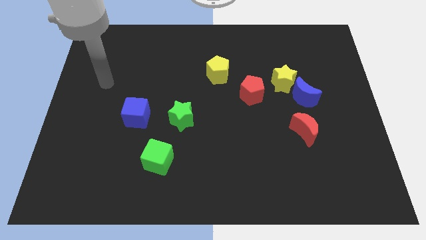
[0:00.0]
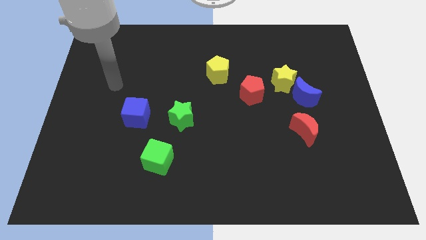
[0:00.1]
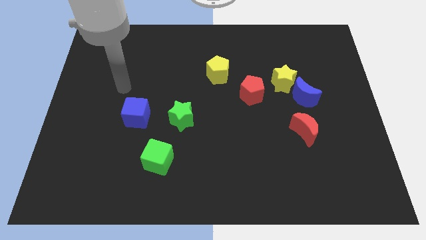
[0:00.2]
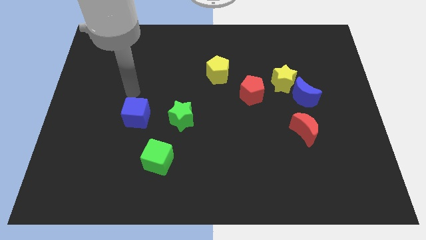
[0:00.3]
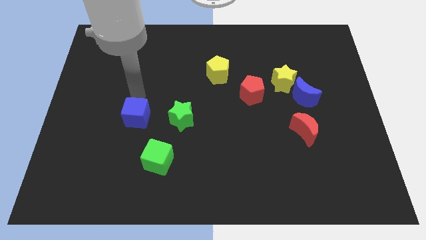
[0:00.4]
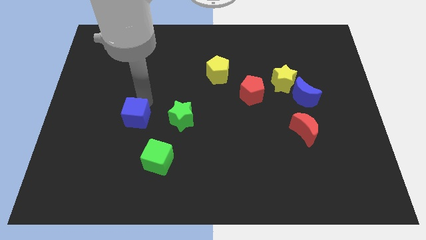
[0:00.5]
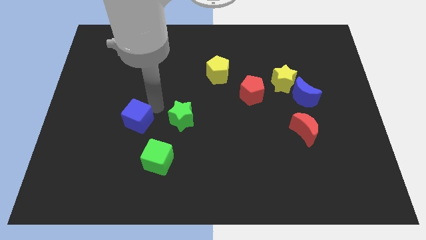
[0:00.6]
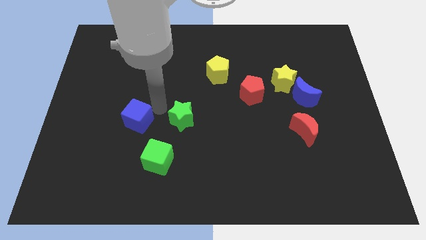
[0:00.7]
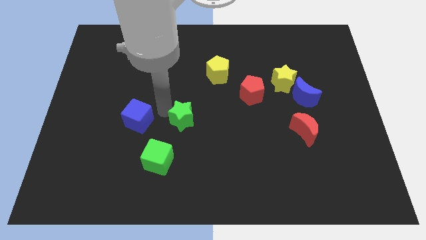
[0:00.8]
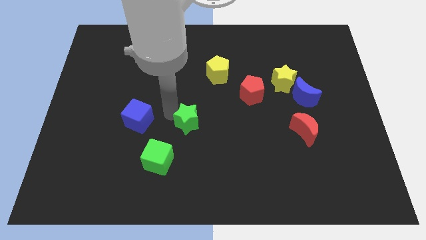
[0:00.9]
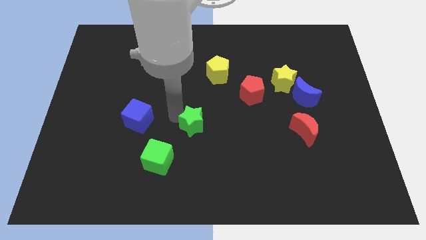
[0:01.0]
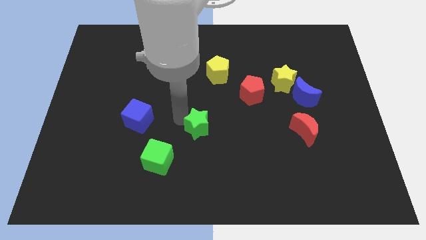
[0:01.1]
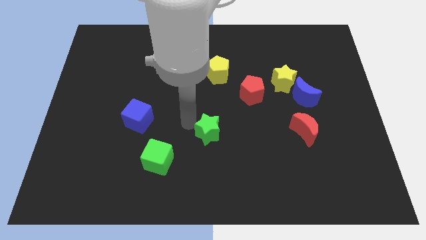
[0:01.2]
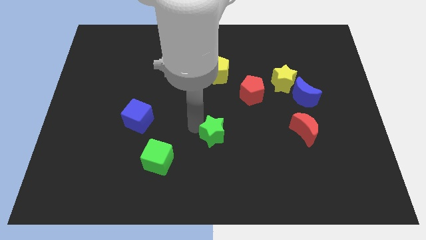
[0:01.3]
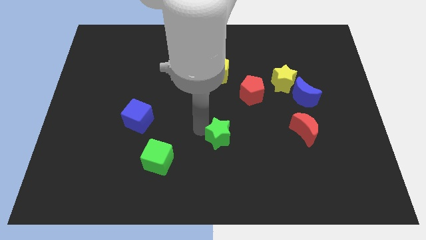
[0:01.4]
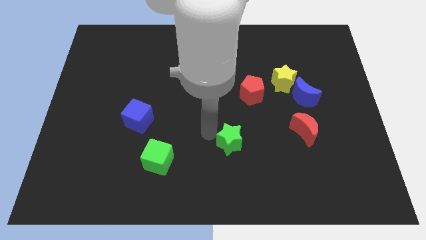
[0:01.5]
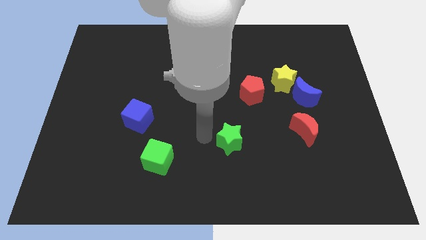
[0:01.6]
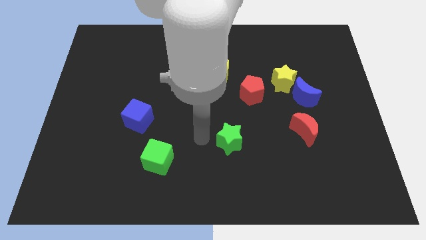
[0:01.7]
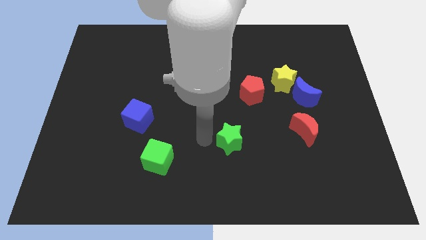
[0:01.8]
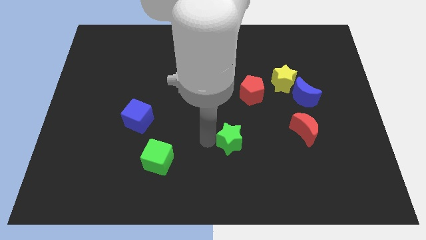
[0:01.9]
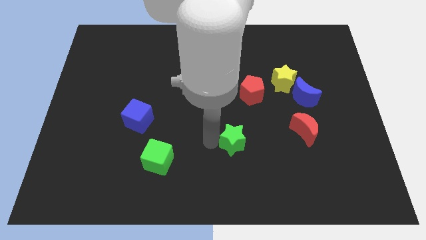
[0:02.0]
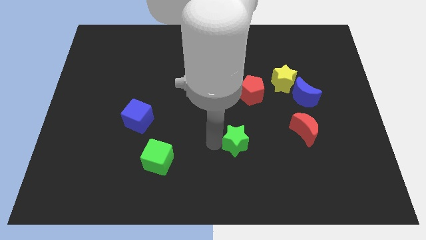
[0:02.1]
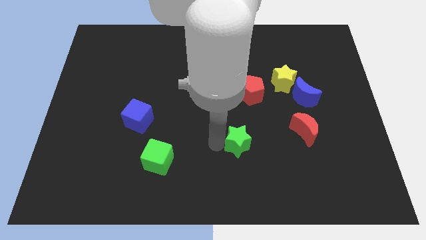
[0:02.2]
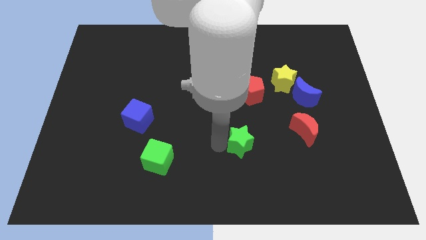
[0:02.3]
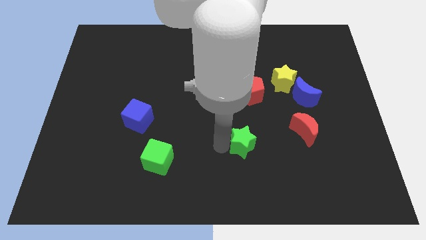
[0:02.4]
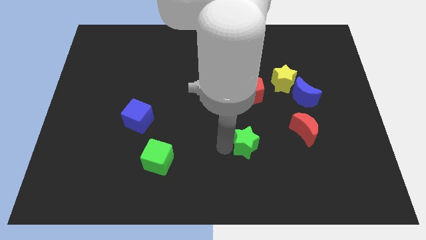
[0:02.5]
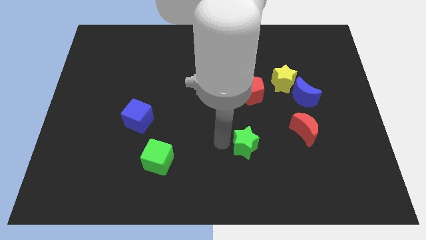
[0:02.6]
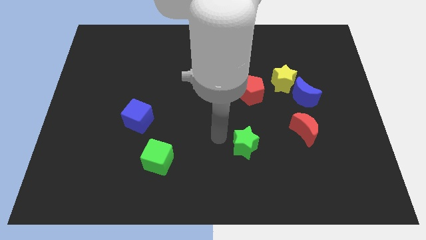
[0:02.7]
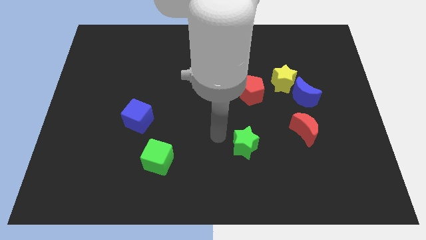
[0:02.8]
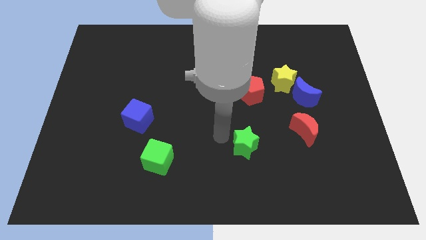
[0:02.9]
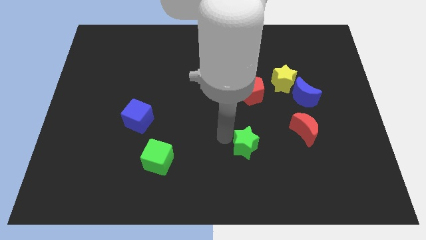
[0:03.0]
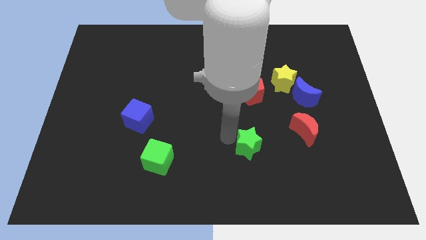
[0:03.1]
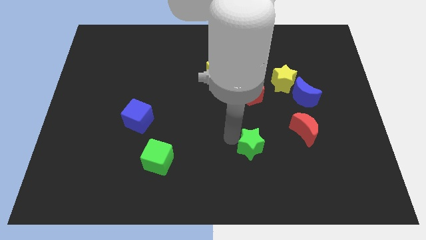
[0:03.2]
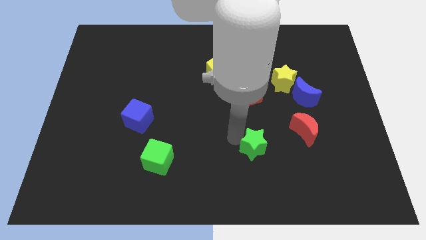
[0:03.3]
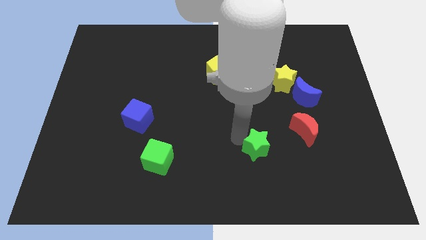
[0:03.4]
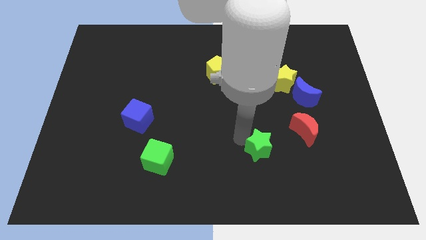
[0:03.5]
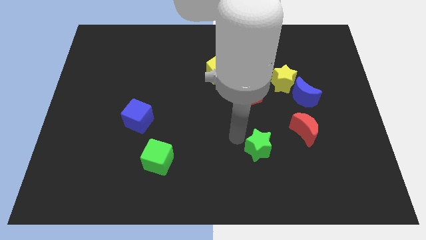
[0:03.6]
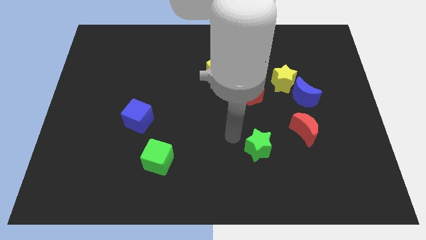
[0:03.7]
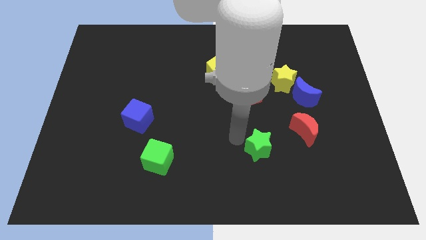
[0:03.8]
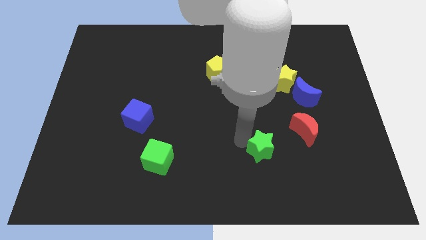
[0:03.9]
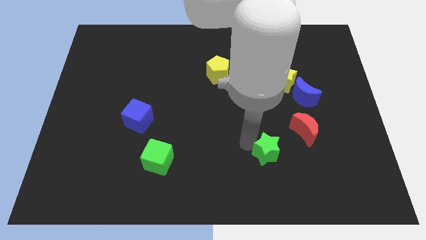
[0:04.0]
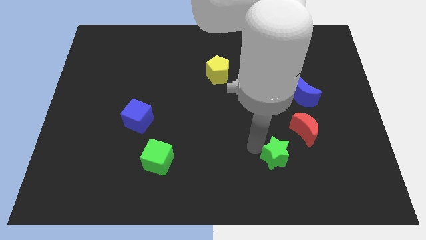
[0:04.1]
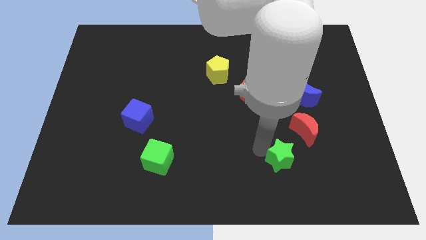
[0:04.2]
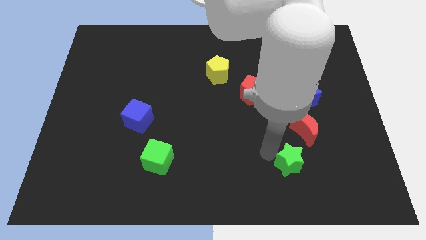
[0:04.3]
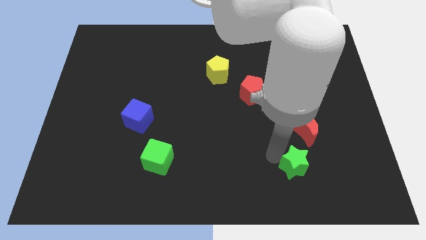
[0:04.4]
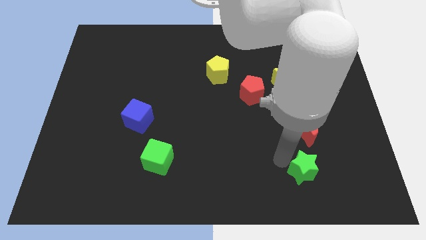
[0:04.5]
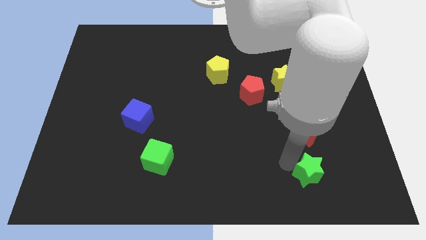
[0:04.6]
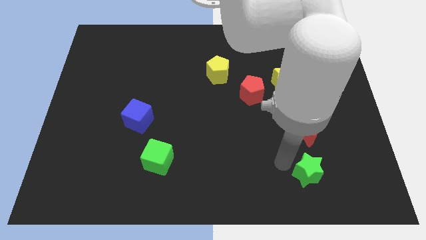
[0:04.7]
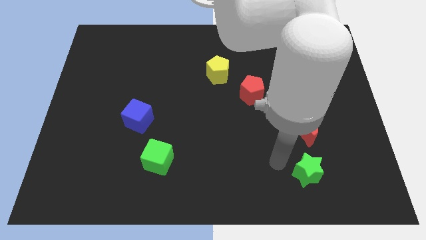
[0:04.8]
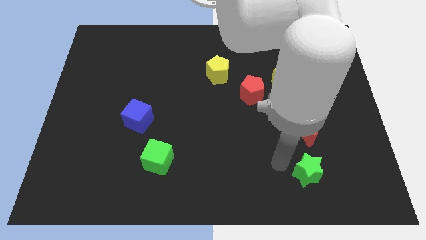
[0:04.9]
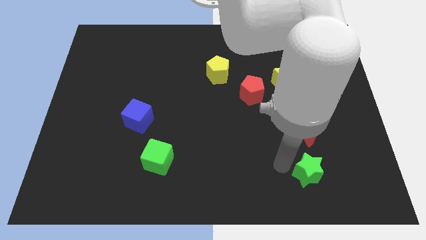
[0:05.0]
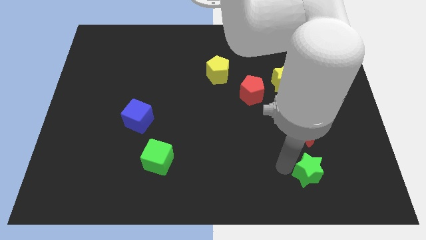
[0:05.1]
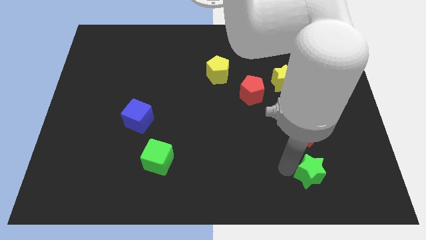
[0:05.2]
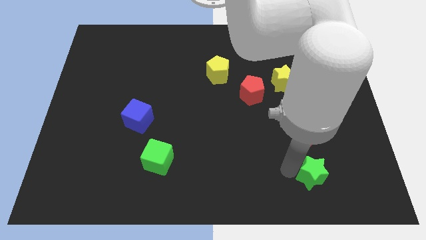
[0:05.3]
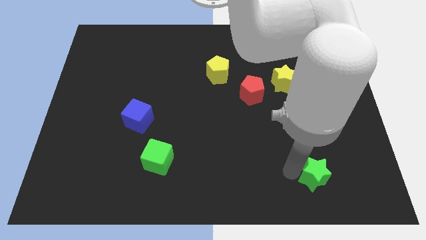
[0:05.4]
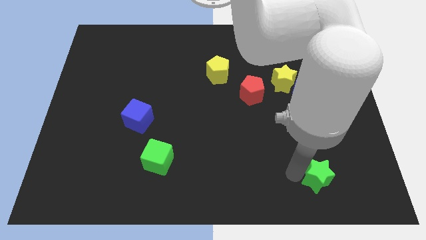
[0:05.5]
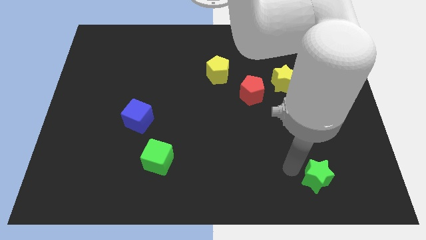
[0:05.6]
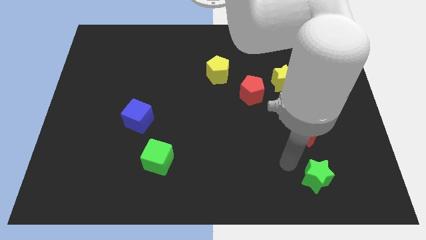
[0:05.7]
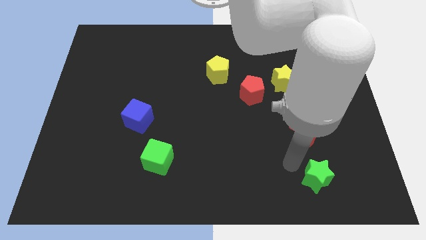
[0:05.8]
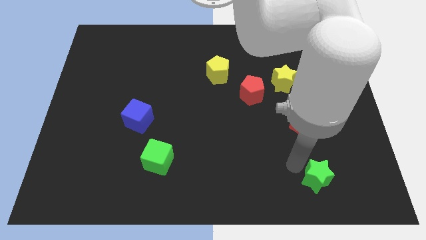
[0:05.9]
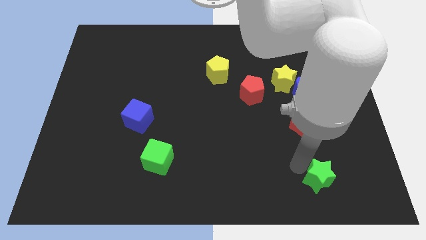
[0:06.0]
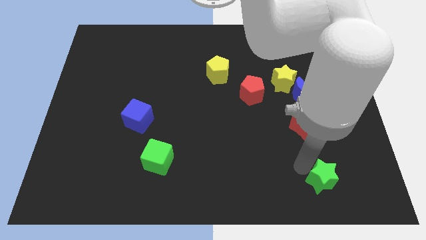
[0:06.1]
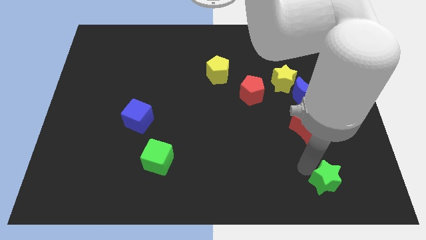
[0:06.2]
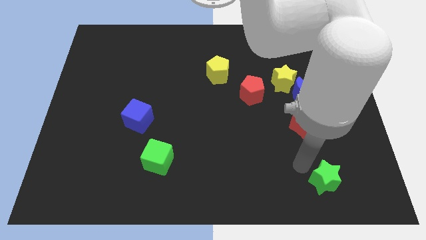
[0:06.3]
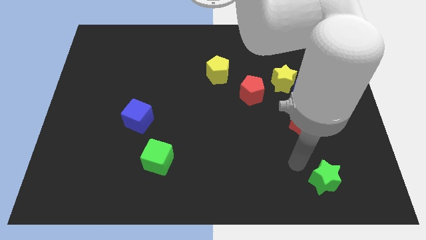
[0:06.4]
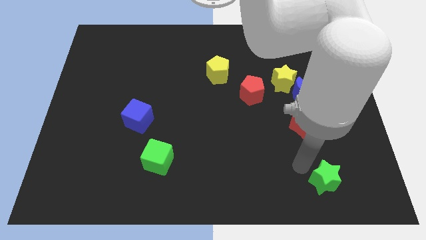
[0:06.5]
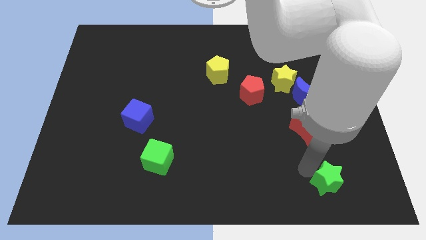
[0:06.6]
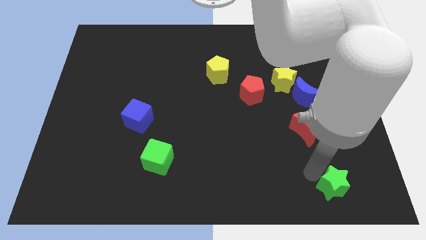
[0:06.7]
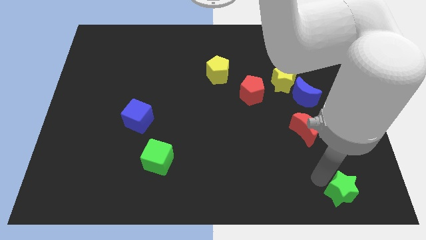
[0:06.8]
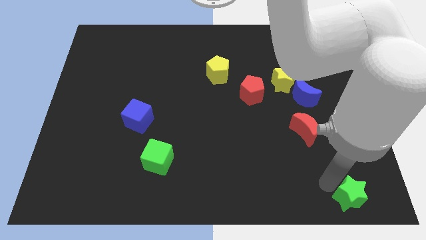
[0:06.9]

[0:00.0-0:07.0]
move the green star to the lower right corner
